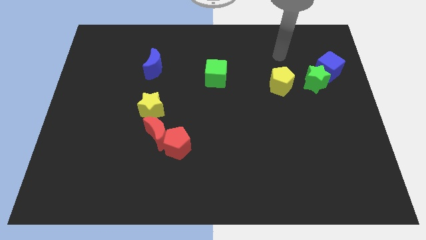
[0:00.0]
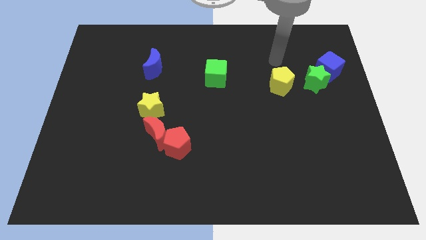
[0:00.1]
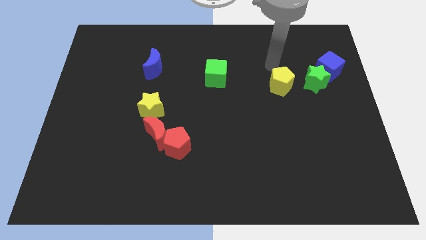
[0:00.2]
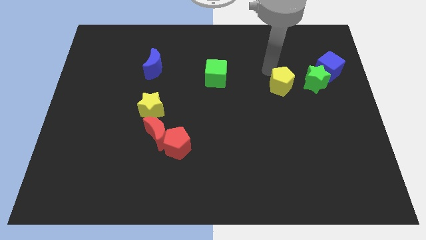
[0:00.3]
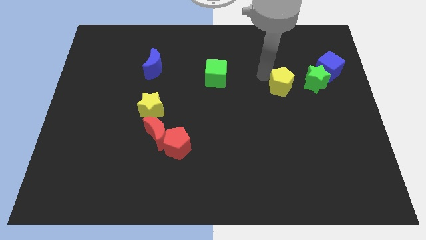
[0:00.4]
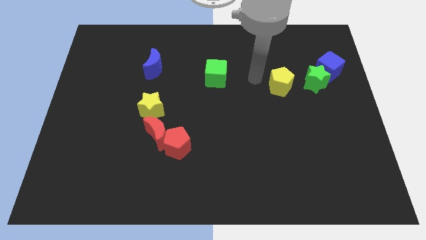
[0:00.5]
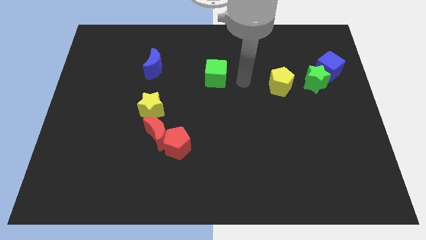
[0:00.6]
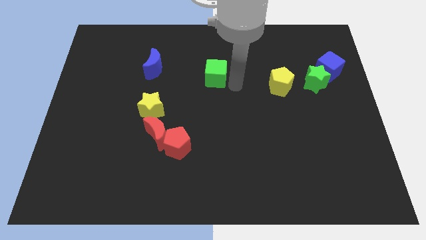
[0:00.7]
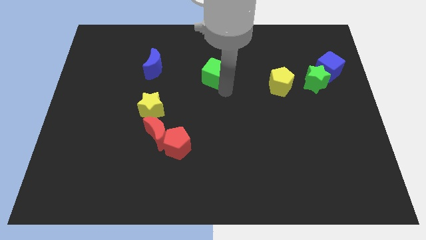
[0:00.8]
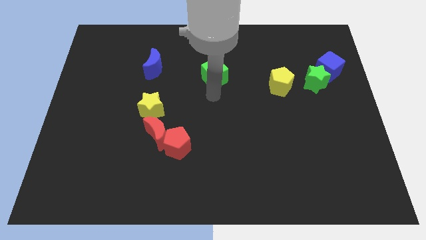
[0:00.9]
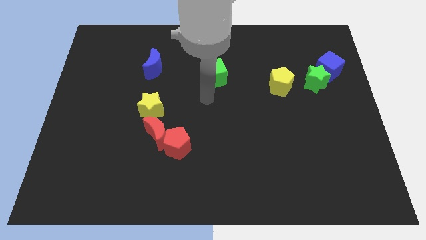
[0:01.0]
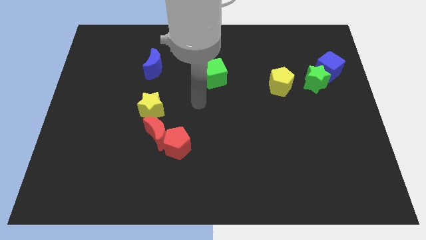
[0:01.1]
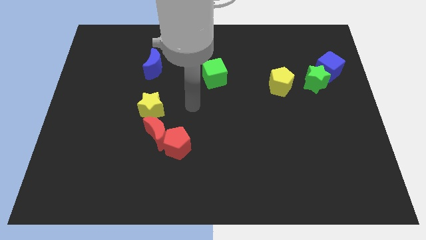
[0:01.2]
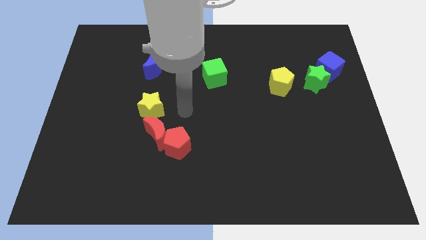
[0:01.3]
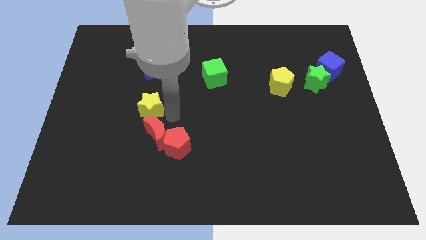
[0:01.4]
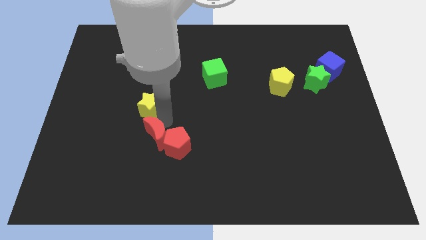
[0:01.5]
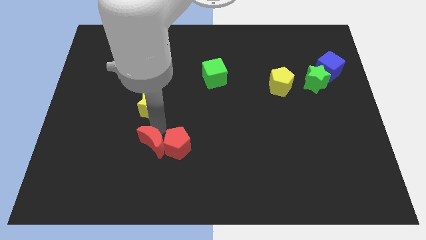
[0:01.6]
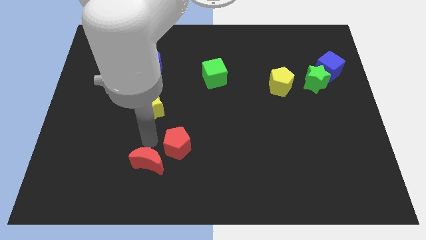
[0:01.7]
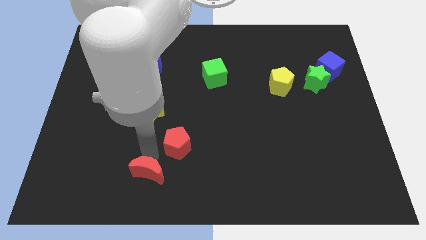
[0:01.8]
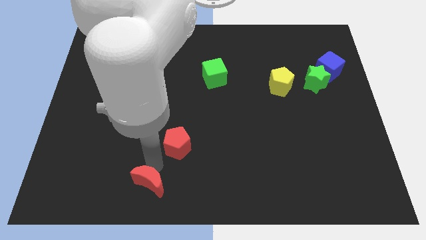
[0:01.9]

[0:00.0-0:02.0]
separate the red pentagon from the red moon

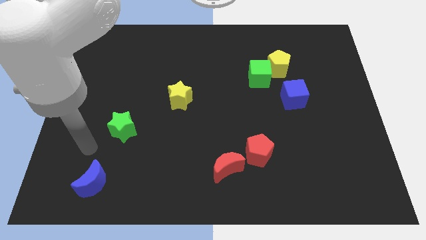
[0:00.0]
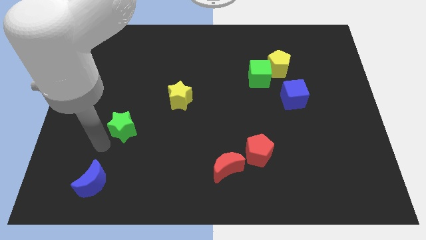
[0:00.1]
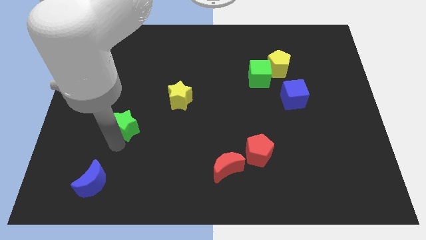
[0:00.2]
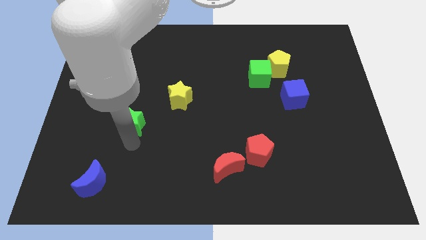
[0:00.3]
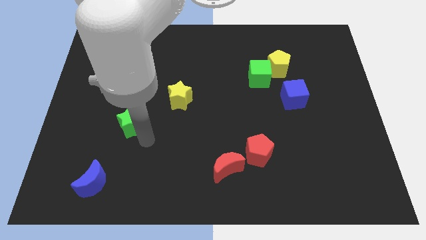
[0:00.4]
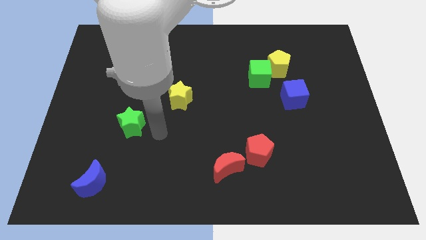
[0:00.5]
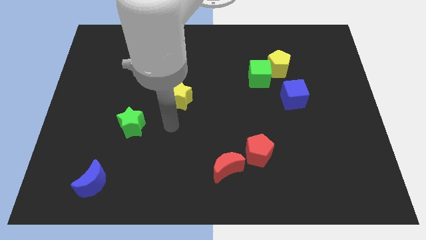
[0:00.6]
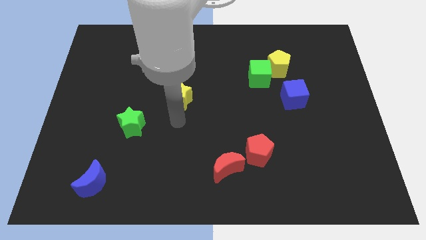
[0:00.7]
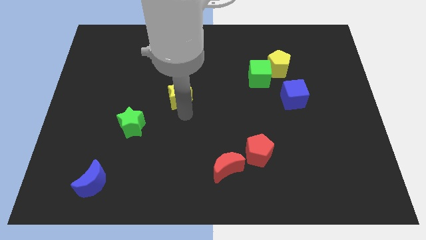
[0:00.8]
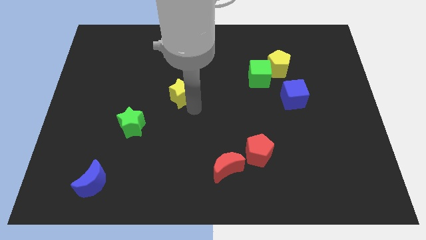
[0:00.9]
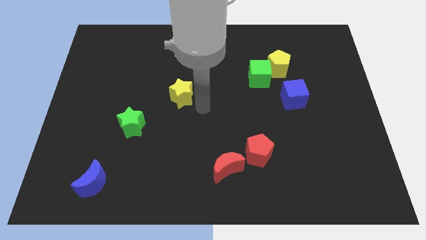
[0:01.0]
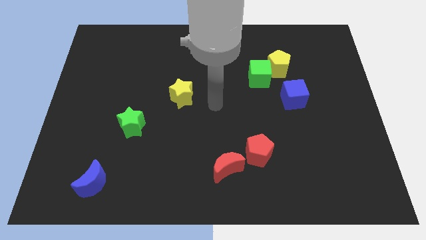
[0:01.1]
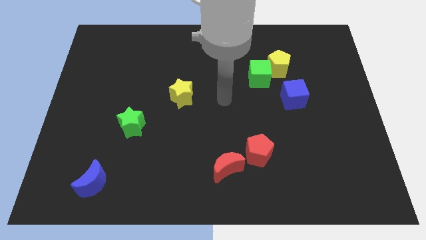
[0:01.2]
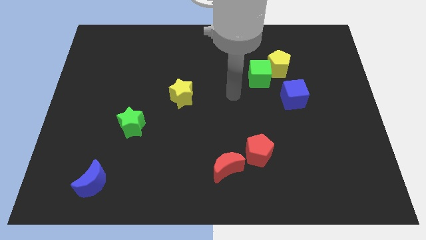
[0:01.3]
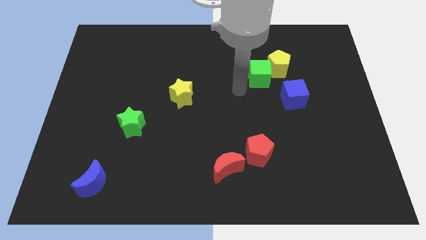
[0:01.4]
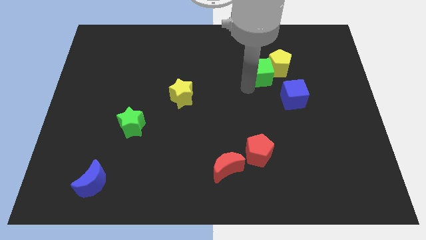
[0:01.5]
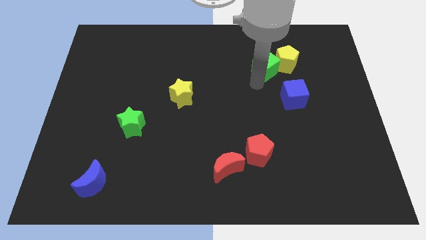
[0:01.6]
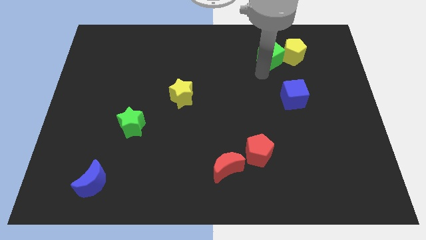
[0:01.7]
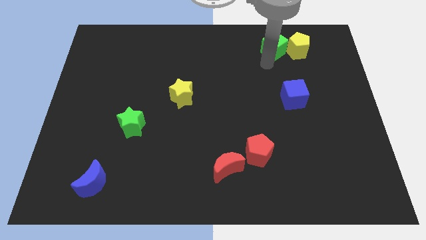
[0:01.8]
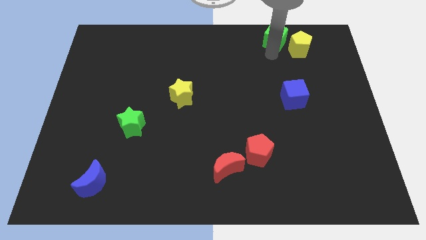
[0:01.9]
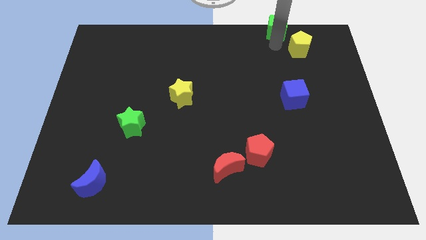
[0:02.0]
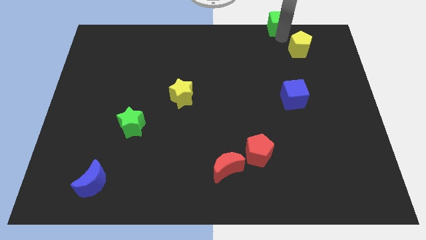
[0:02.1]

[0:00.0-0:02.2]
separate the yellow pentagon from the green cube

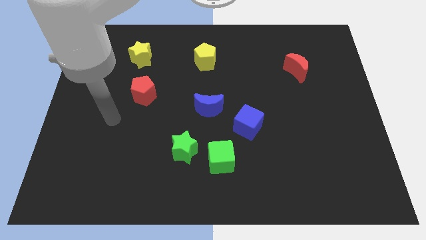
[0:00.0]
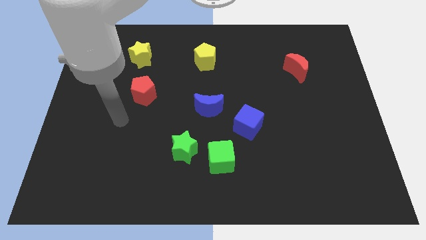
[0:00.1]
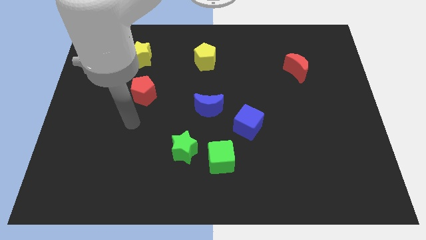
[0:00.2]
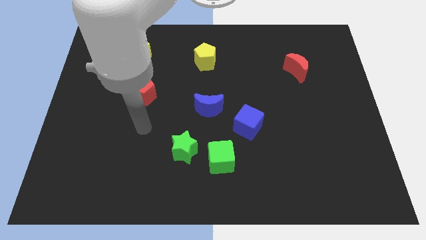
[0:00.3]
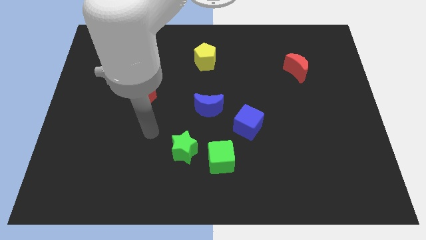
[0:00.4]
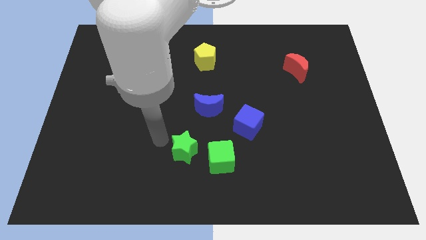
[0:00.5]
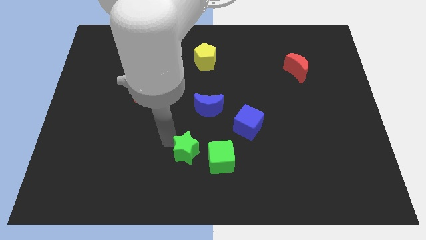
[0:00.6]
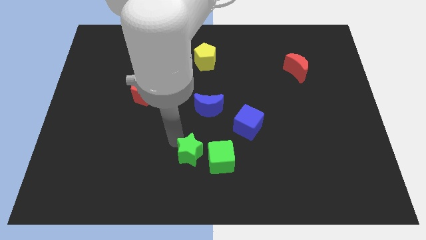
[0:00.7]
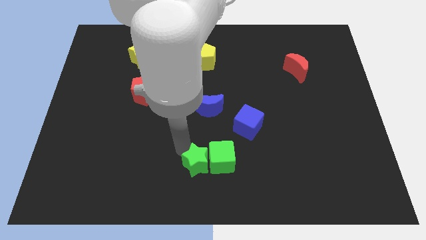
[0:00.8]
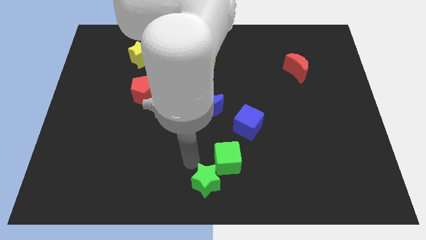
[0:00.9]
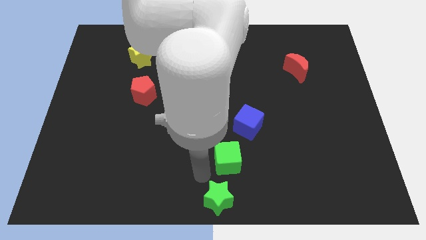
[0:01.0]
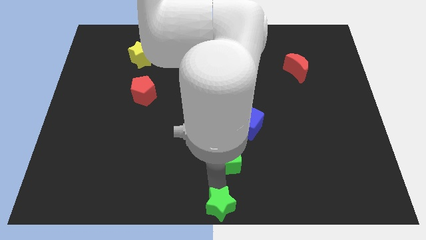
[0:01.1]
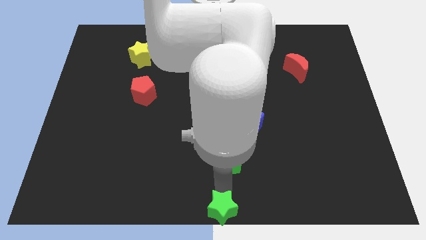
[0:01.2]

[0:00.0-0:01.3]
move the green cube away from the green star

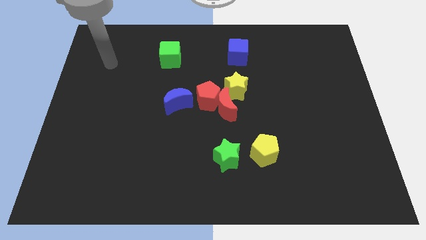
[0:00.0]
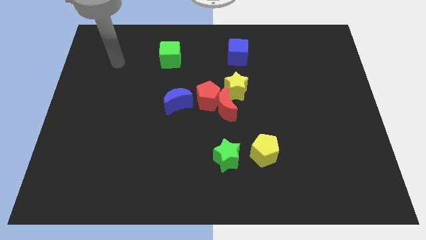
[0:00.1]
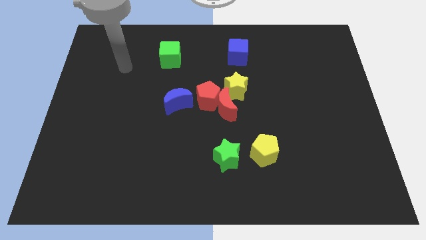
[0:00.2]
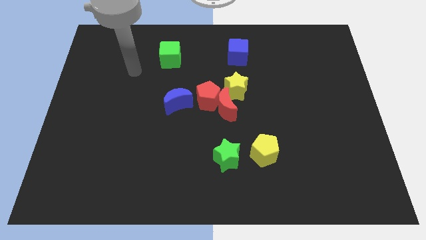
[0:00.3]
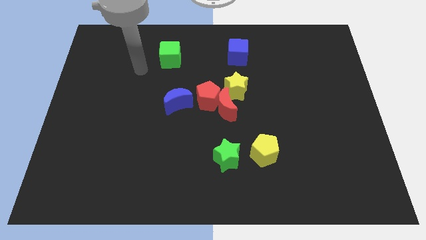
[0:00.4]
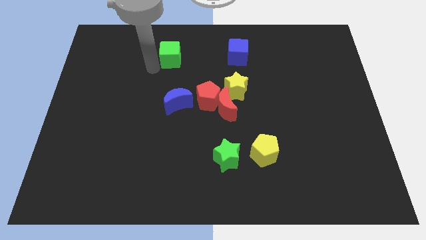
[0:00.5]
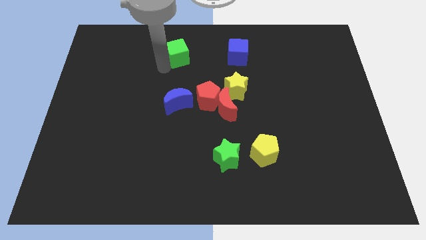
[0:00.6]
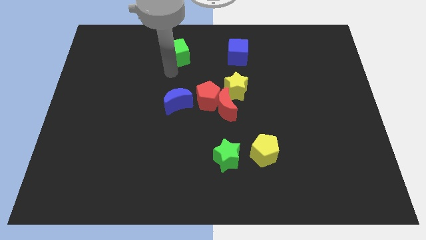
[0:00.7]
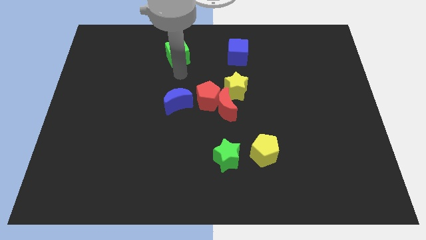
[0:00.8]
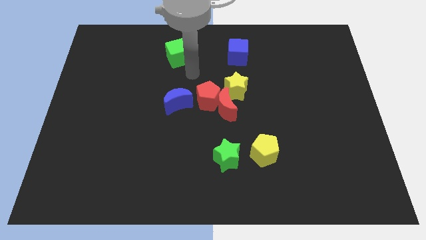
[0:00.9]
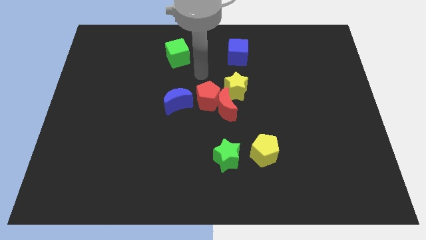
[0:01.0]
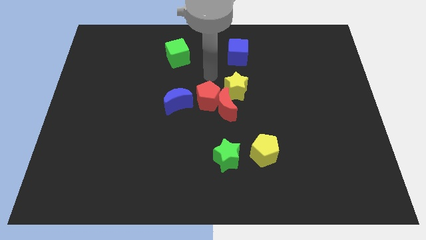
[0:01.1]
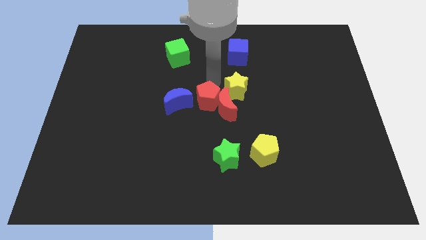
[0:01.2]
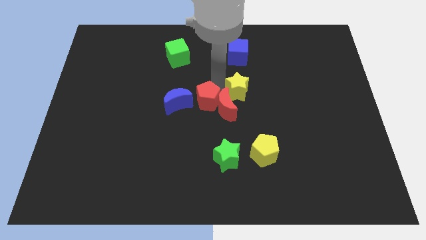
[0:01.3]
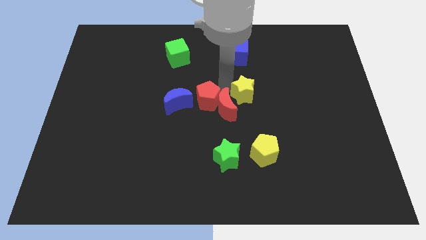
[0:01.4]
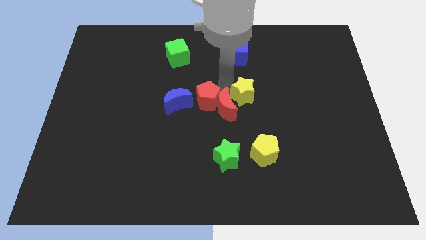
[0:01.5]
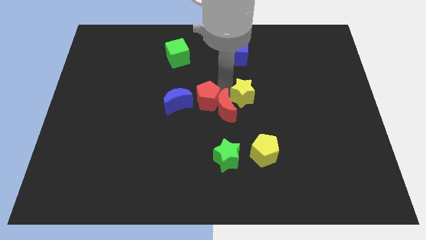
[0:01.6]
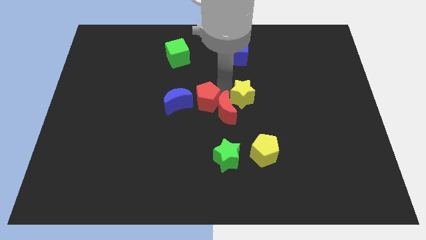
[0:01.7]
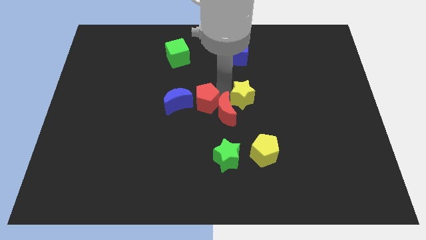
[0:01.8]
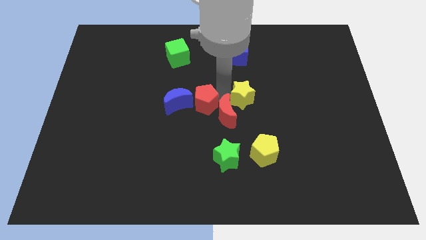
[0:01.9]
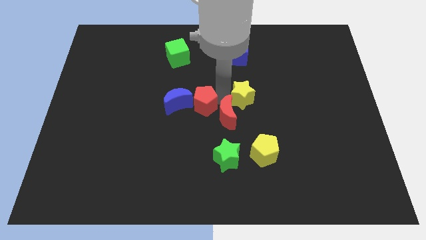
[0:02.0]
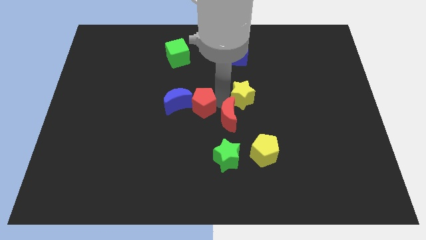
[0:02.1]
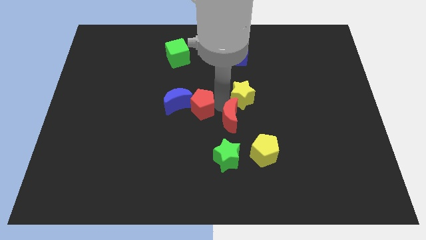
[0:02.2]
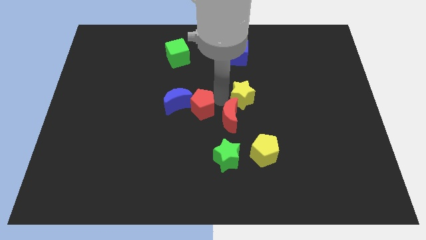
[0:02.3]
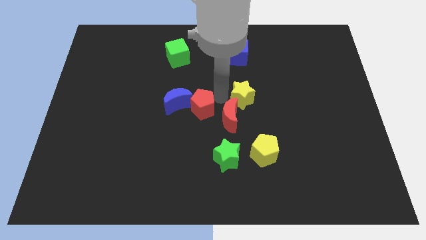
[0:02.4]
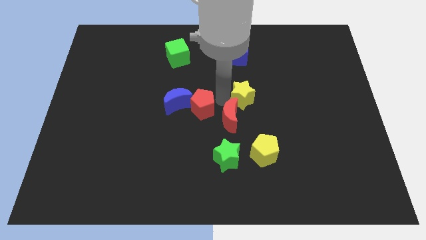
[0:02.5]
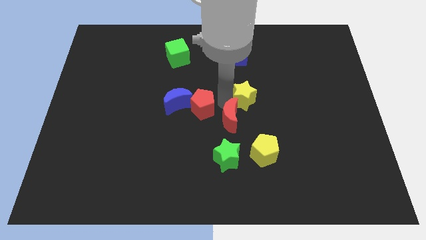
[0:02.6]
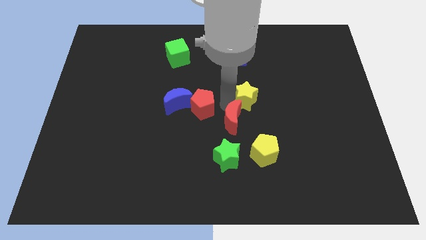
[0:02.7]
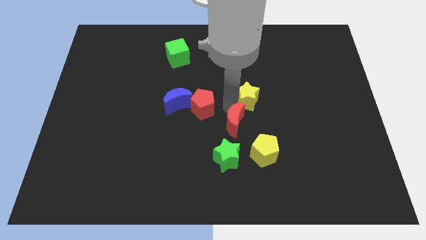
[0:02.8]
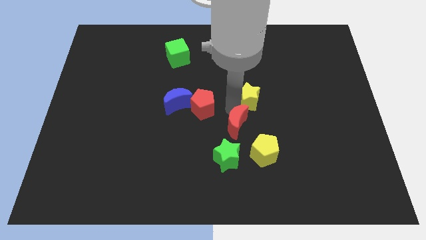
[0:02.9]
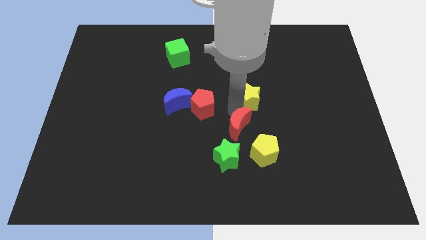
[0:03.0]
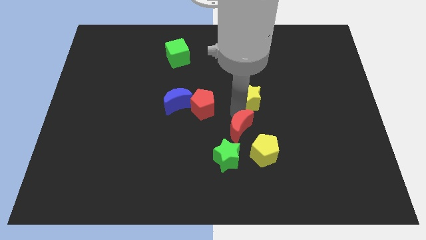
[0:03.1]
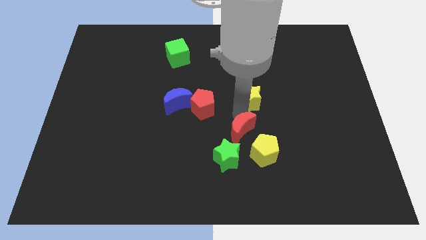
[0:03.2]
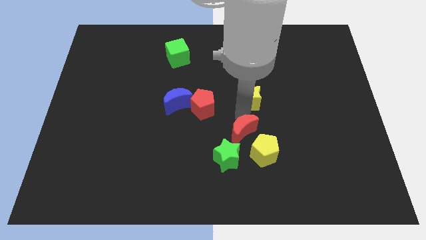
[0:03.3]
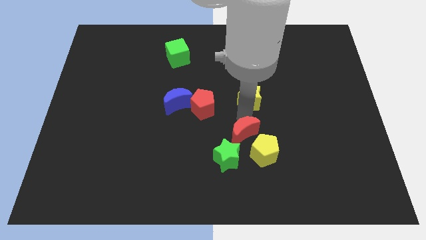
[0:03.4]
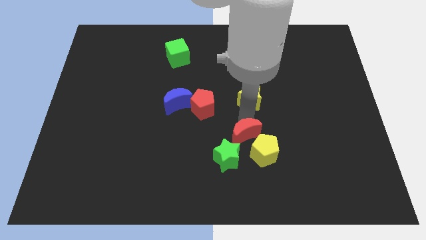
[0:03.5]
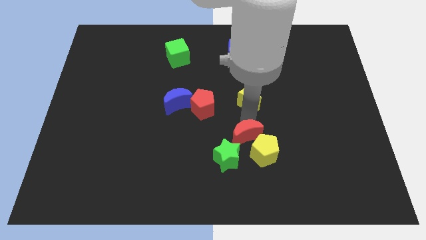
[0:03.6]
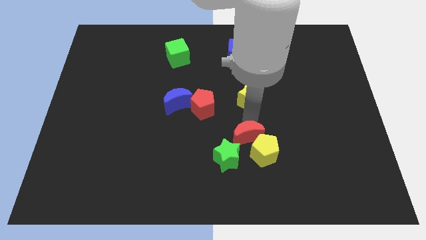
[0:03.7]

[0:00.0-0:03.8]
pull the red moon apart from the red pentagon and yellow star

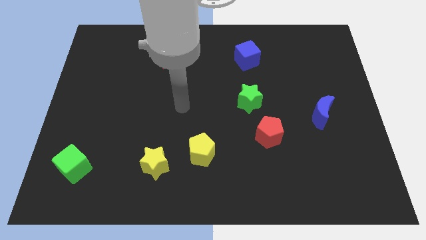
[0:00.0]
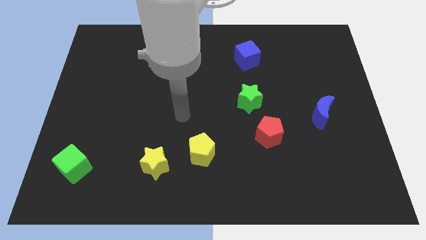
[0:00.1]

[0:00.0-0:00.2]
move the yellow star away from the yellow pentagon
